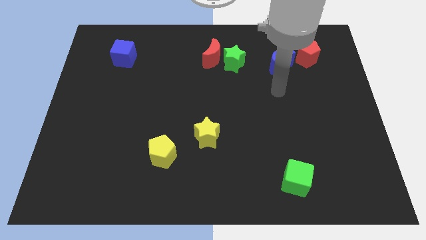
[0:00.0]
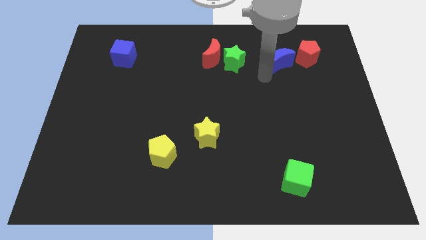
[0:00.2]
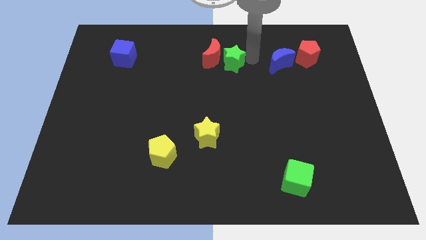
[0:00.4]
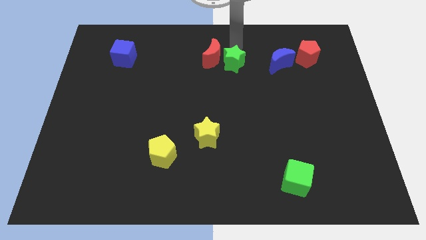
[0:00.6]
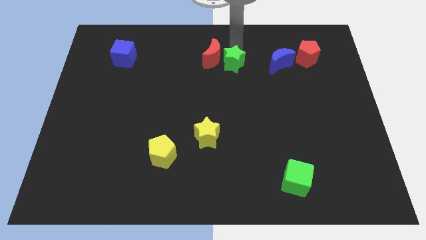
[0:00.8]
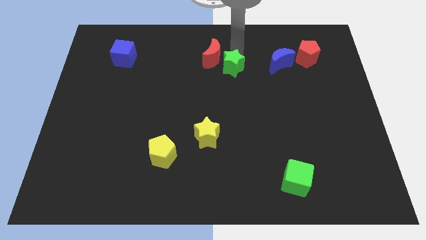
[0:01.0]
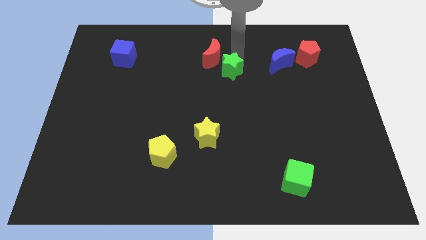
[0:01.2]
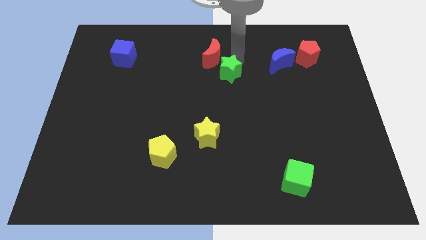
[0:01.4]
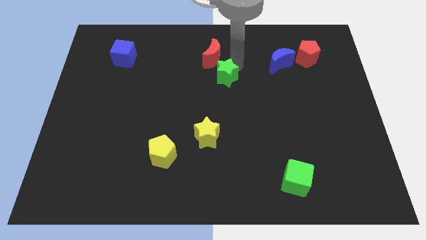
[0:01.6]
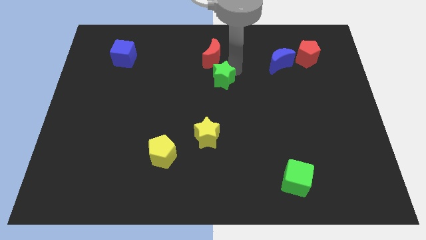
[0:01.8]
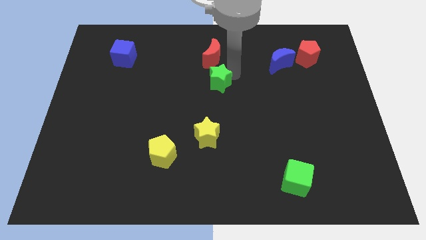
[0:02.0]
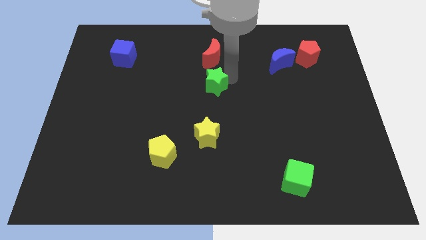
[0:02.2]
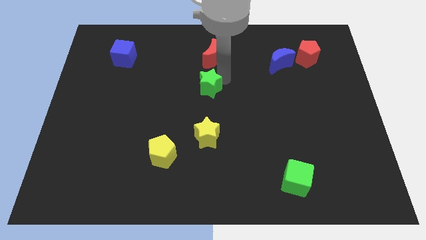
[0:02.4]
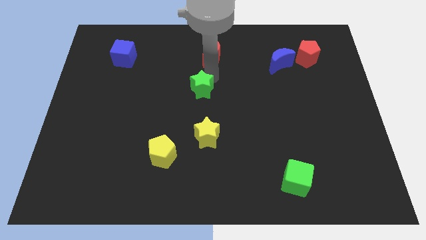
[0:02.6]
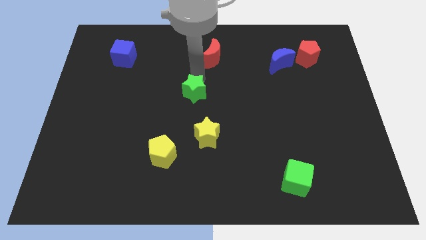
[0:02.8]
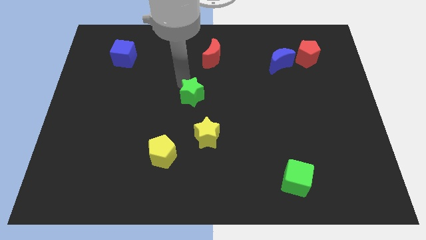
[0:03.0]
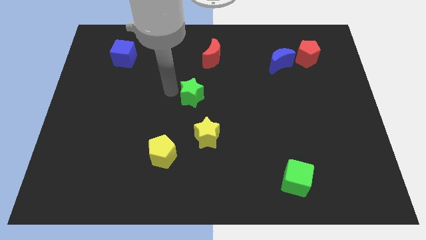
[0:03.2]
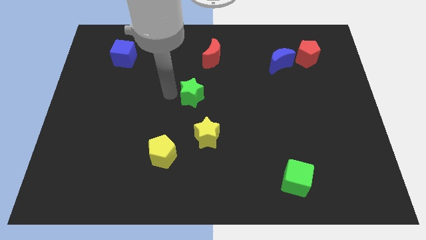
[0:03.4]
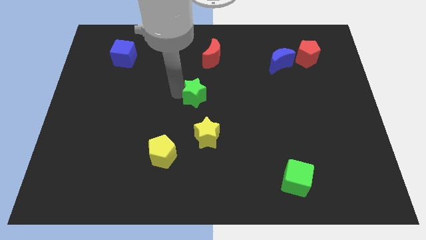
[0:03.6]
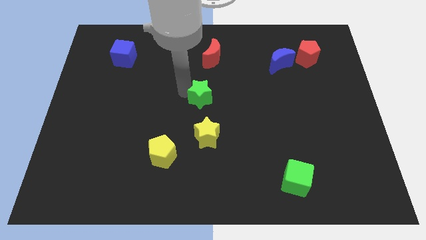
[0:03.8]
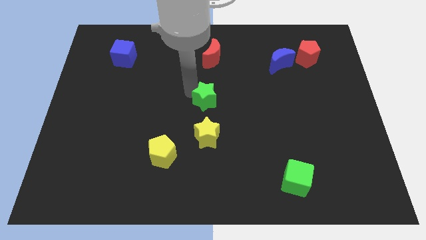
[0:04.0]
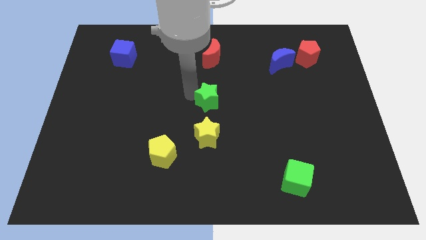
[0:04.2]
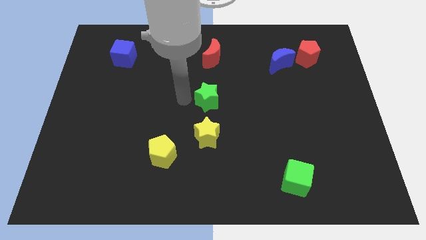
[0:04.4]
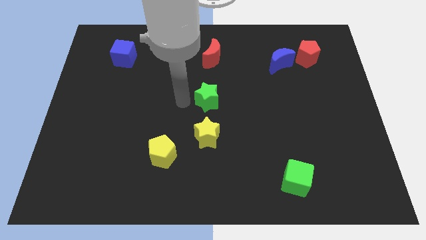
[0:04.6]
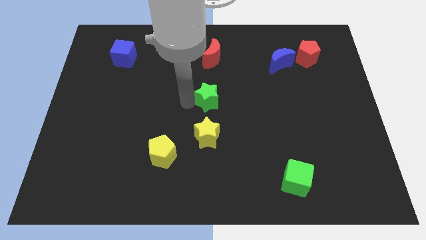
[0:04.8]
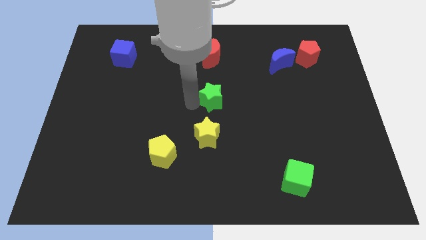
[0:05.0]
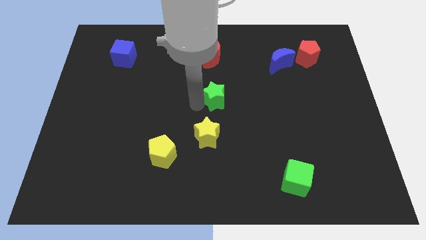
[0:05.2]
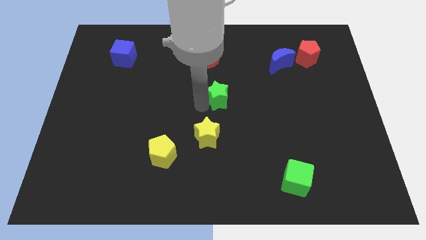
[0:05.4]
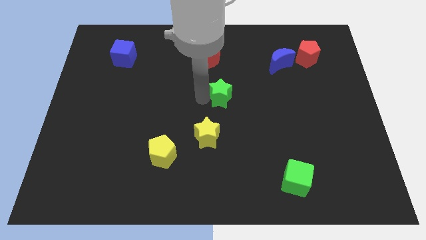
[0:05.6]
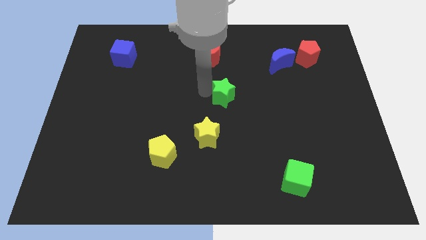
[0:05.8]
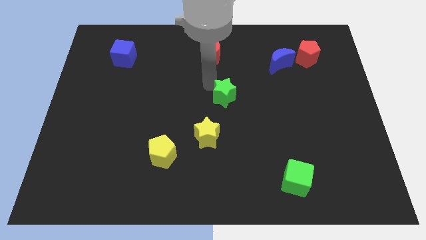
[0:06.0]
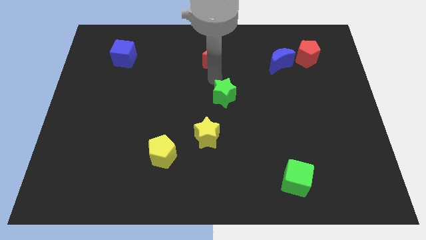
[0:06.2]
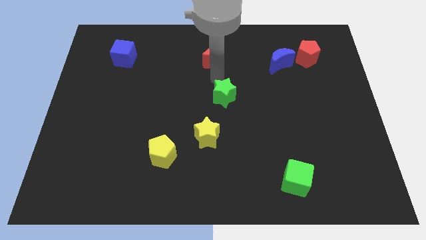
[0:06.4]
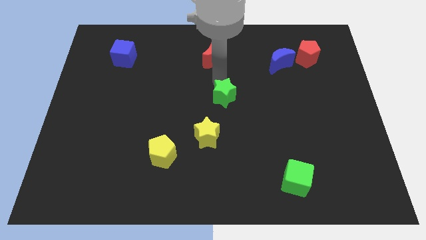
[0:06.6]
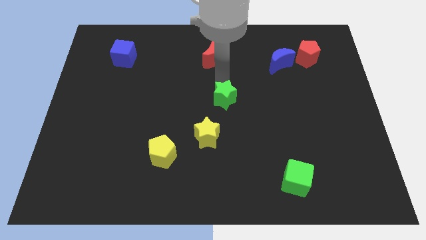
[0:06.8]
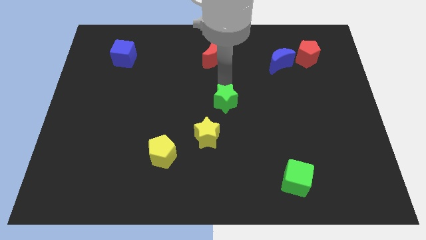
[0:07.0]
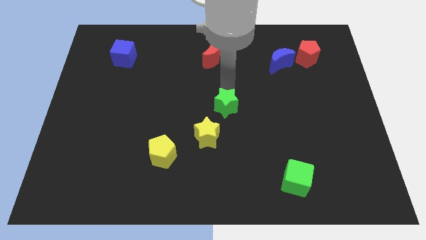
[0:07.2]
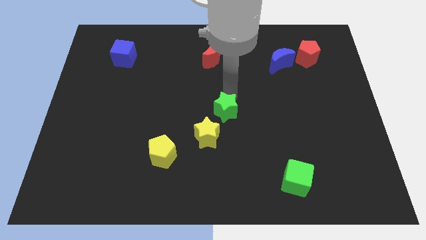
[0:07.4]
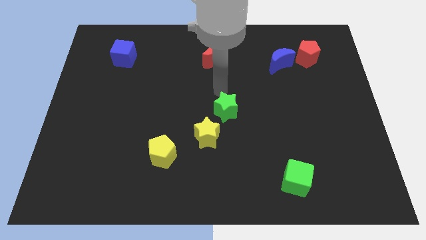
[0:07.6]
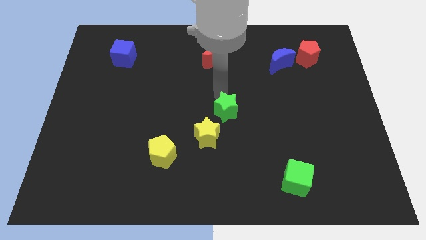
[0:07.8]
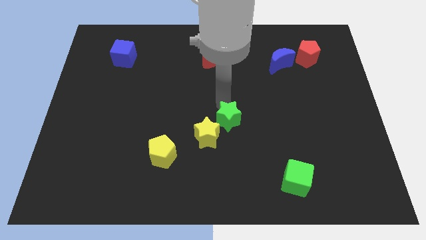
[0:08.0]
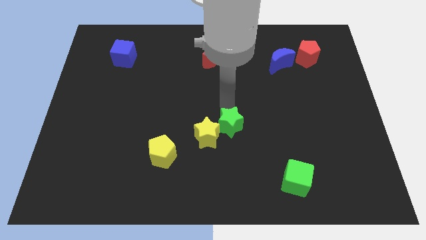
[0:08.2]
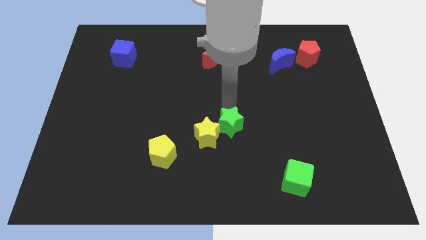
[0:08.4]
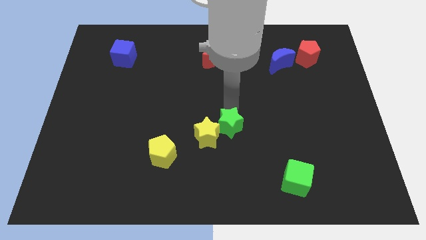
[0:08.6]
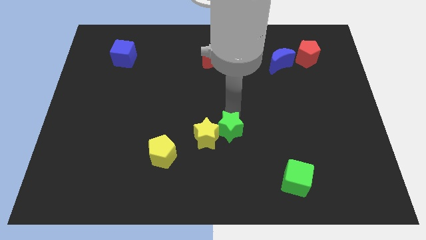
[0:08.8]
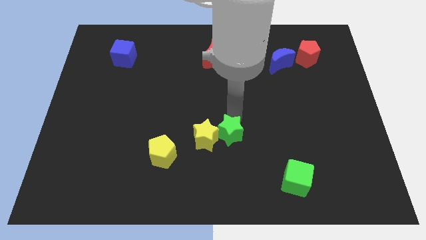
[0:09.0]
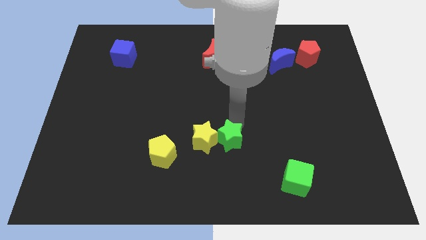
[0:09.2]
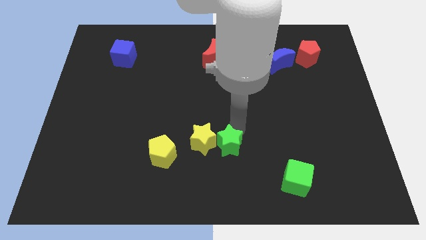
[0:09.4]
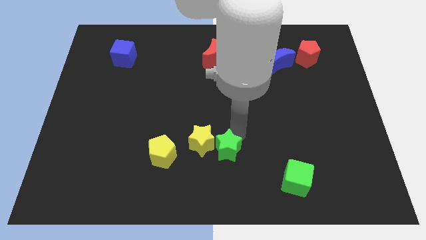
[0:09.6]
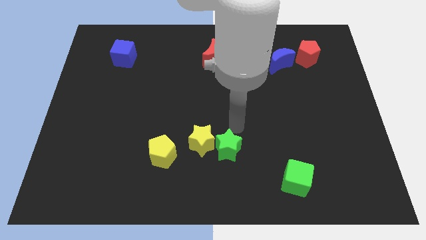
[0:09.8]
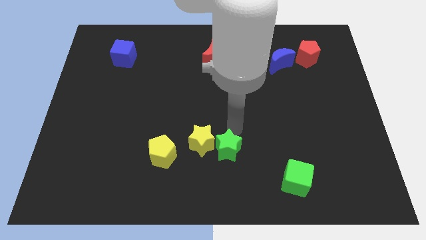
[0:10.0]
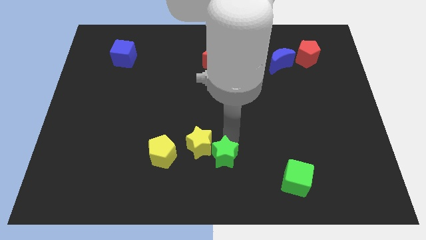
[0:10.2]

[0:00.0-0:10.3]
put the green star to the bottom side

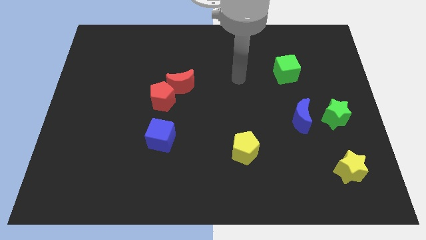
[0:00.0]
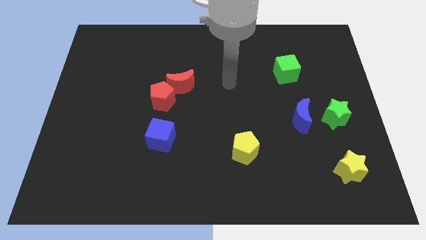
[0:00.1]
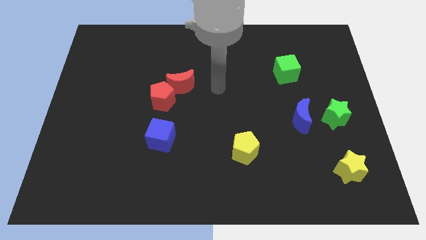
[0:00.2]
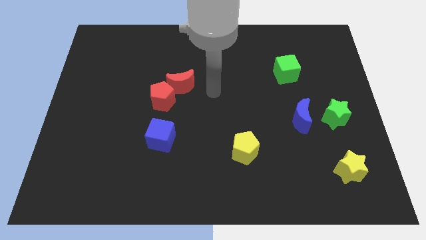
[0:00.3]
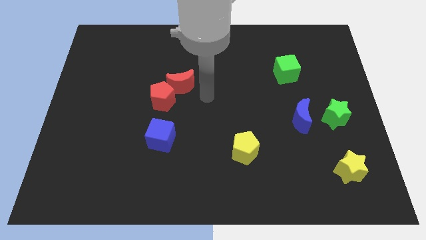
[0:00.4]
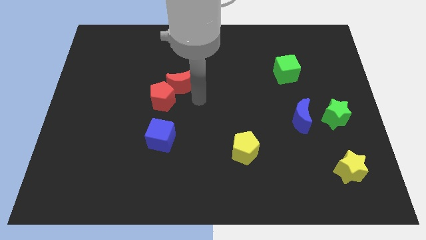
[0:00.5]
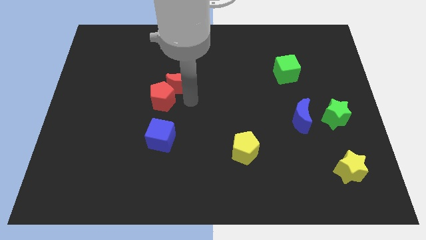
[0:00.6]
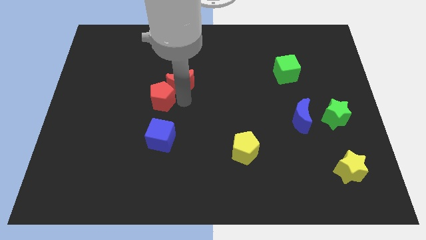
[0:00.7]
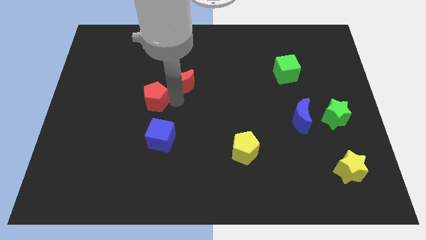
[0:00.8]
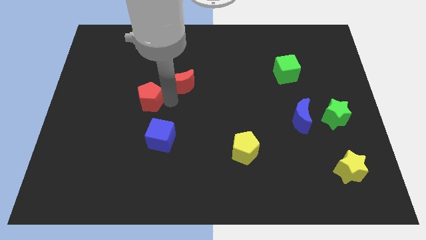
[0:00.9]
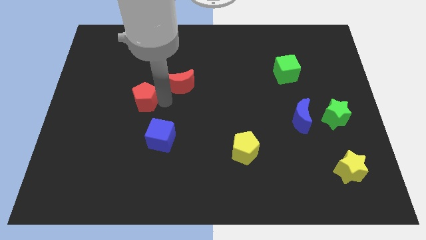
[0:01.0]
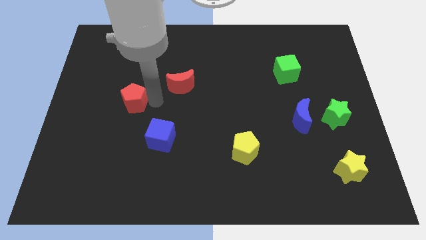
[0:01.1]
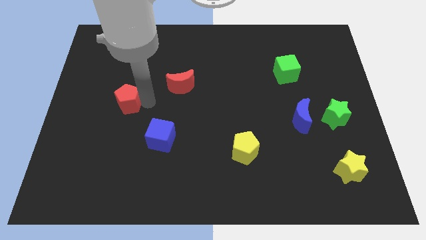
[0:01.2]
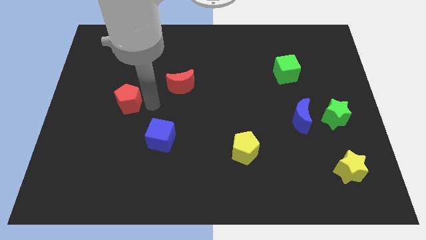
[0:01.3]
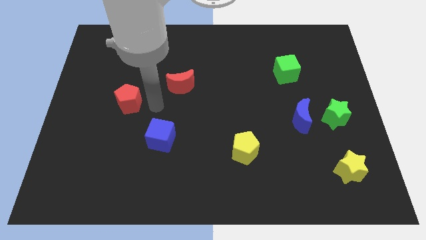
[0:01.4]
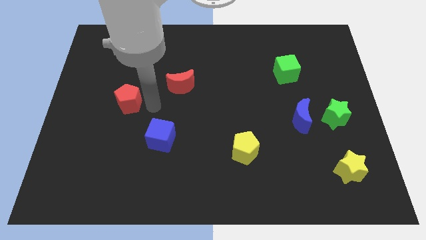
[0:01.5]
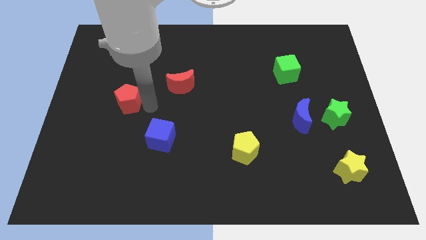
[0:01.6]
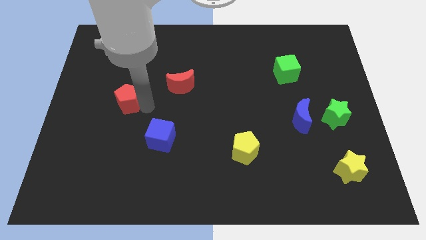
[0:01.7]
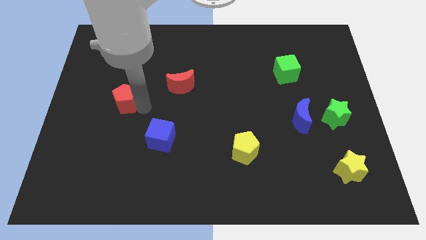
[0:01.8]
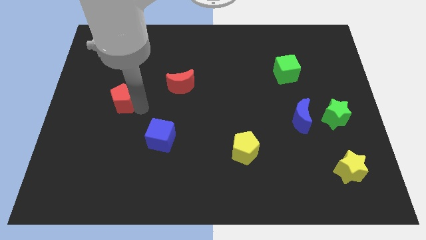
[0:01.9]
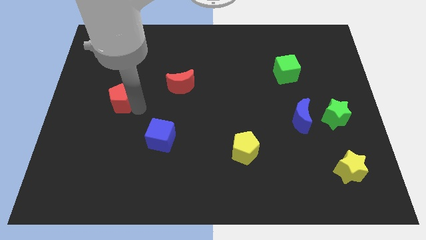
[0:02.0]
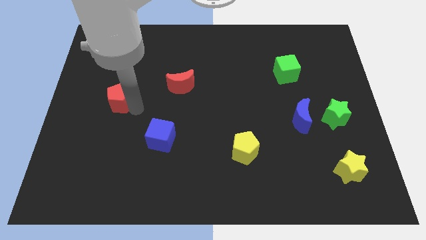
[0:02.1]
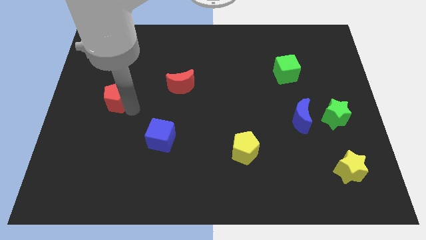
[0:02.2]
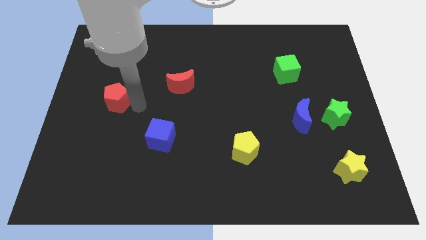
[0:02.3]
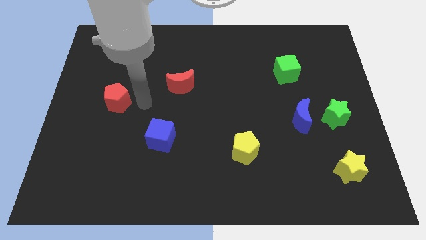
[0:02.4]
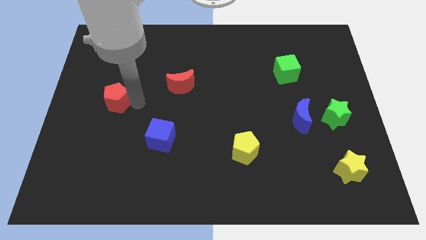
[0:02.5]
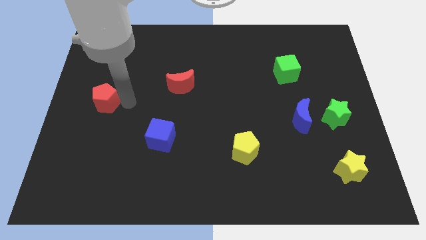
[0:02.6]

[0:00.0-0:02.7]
slide the red pentagon to the left side
